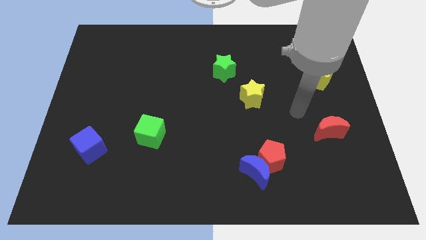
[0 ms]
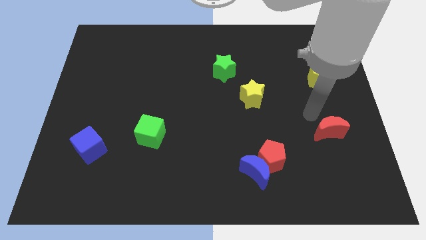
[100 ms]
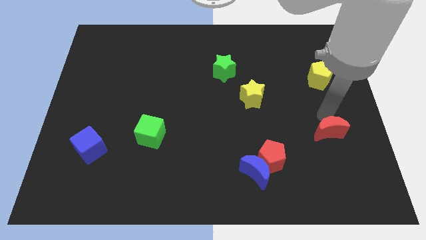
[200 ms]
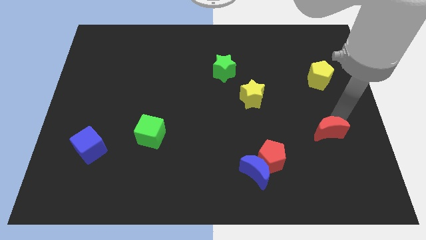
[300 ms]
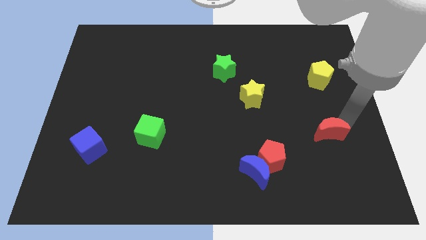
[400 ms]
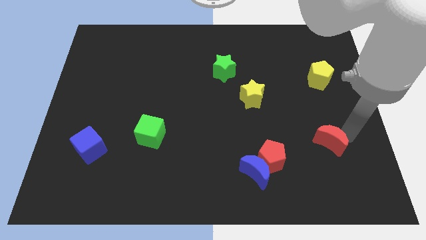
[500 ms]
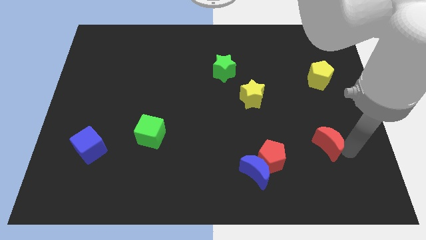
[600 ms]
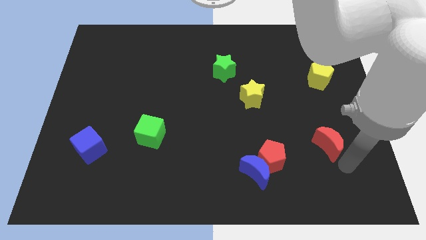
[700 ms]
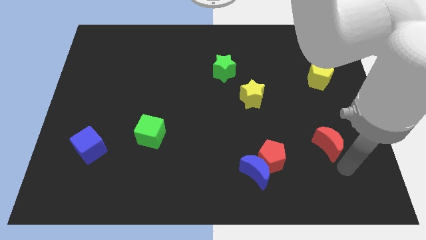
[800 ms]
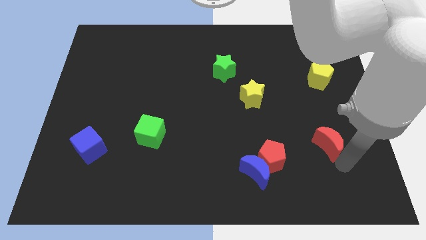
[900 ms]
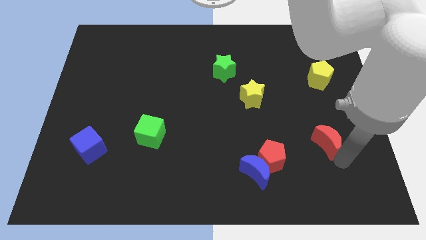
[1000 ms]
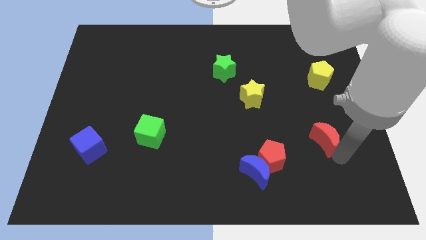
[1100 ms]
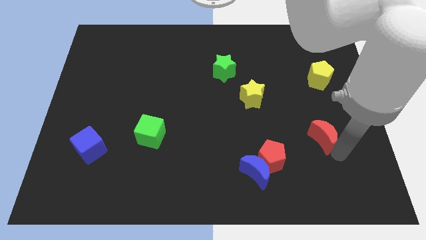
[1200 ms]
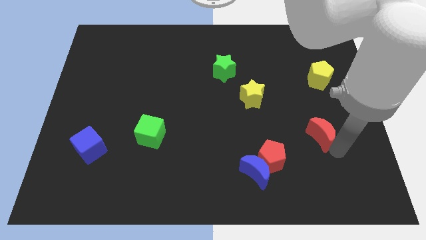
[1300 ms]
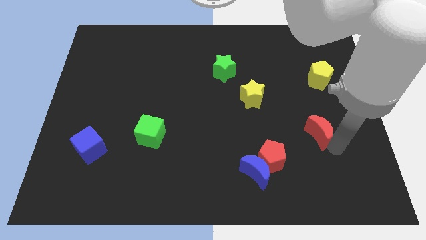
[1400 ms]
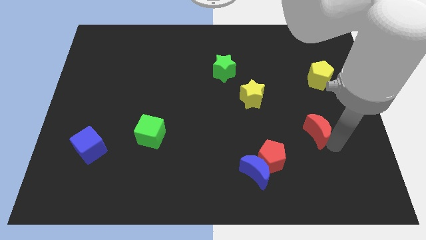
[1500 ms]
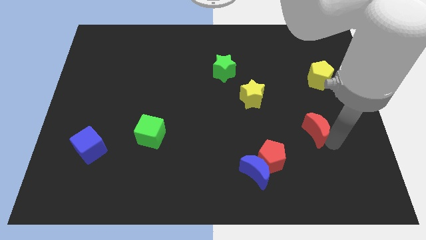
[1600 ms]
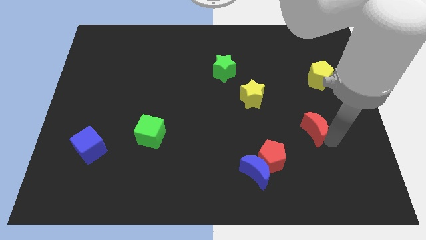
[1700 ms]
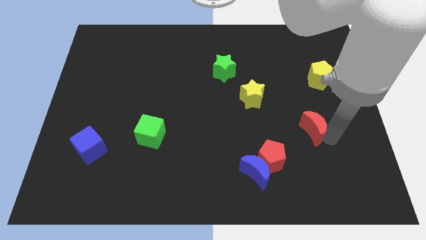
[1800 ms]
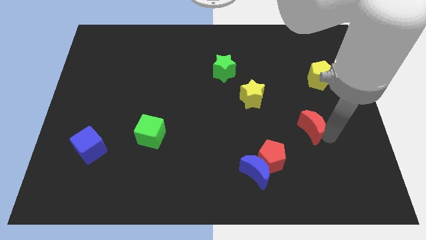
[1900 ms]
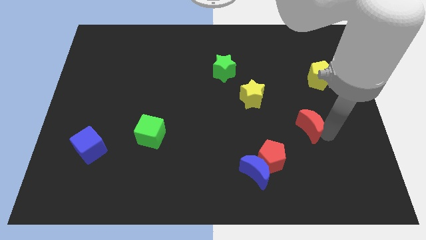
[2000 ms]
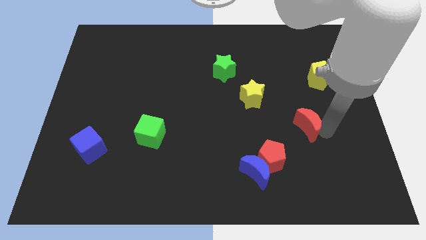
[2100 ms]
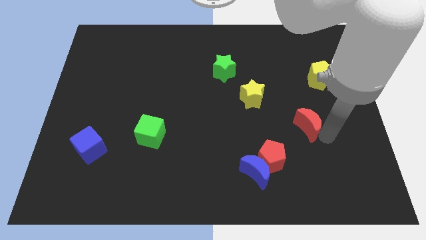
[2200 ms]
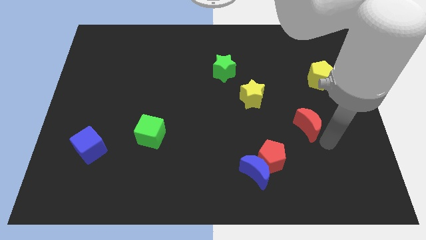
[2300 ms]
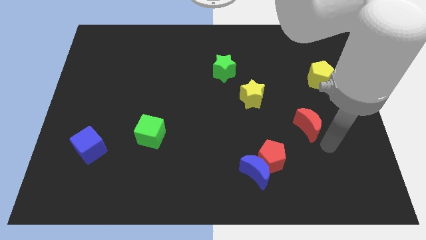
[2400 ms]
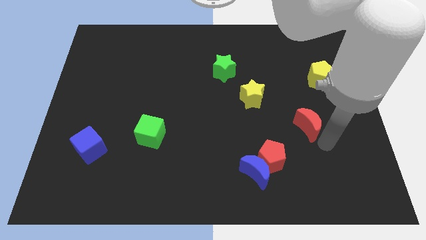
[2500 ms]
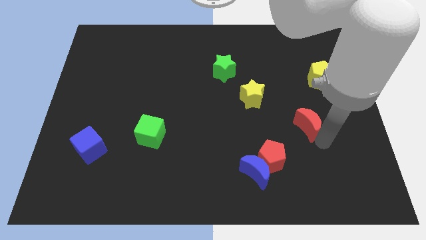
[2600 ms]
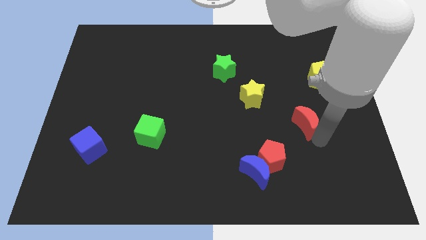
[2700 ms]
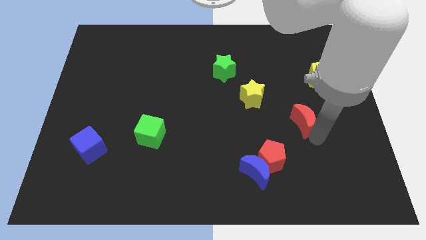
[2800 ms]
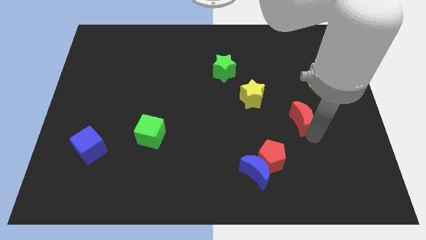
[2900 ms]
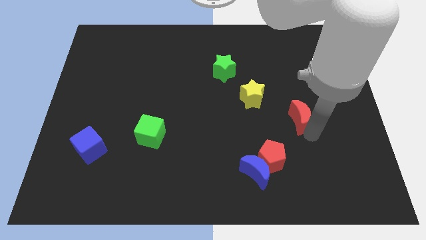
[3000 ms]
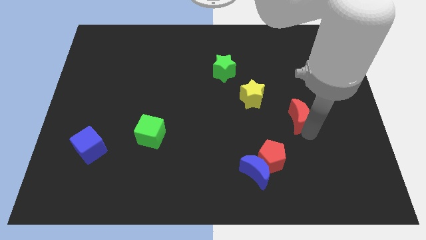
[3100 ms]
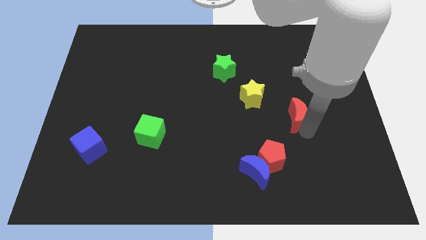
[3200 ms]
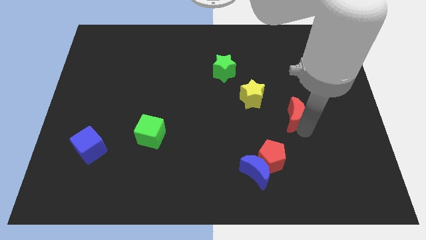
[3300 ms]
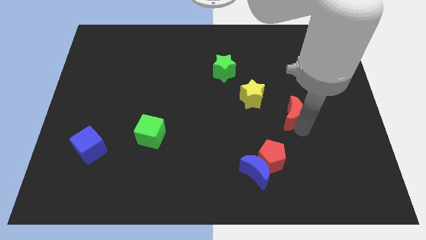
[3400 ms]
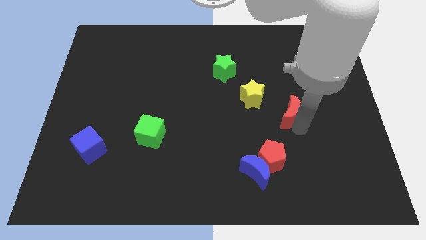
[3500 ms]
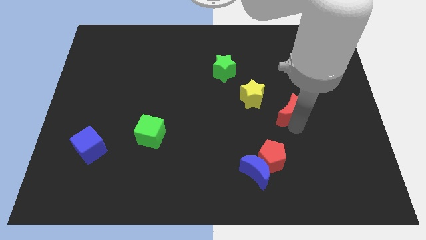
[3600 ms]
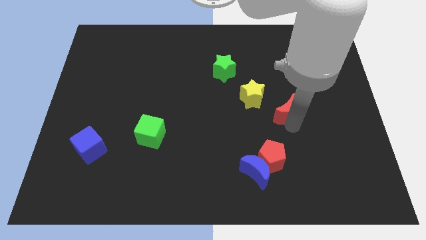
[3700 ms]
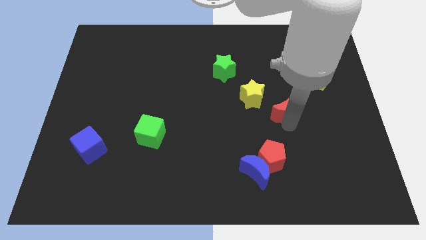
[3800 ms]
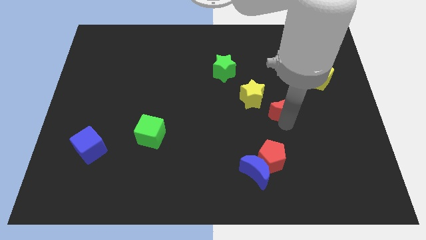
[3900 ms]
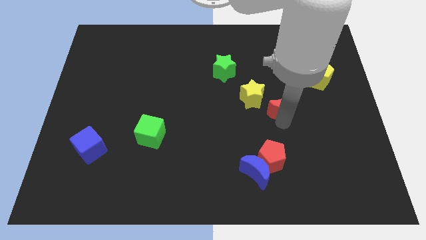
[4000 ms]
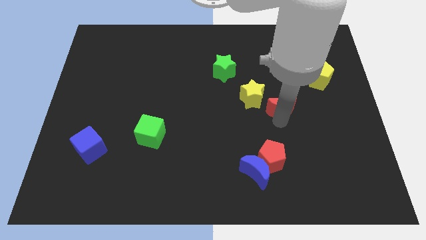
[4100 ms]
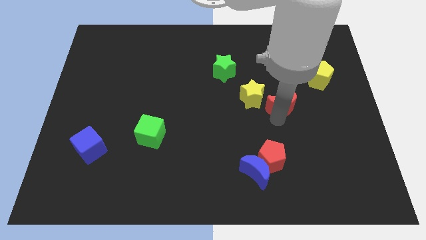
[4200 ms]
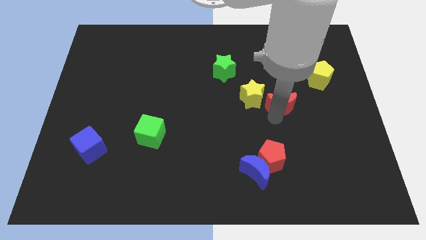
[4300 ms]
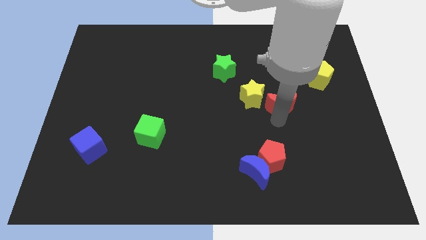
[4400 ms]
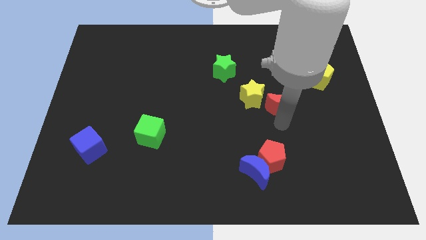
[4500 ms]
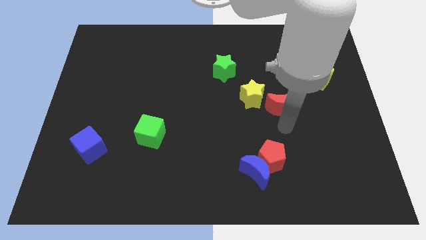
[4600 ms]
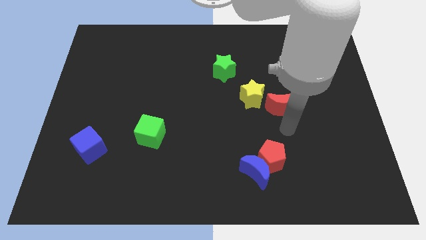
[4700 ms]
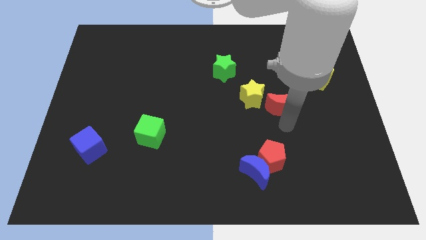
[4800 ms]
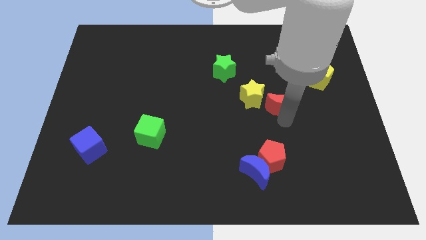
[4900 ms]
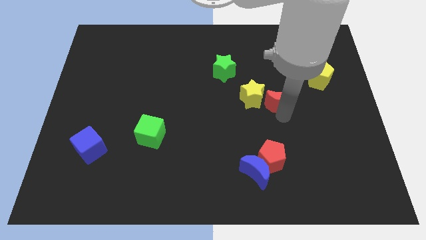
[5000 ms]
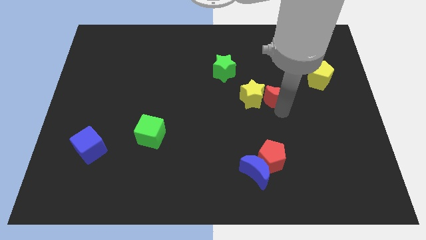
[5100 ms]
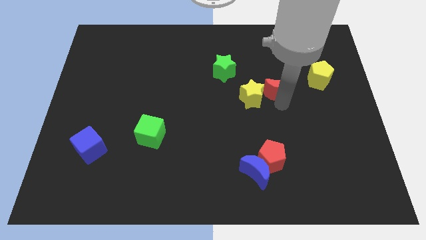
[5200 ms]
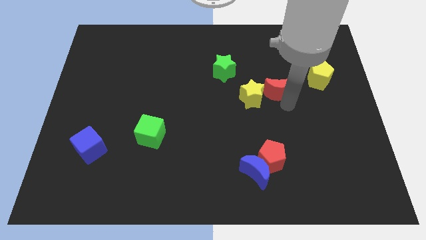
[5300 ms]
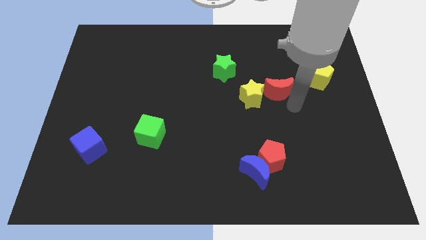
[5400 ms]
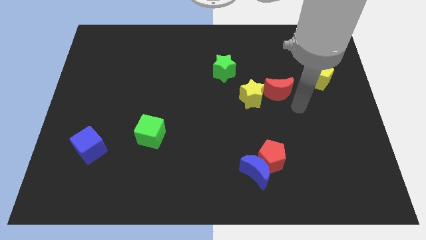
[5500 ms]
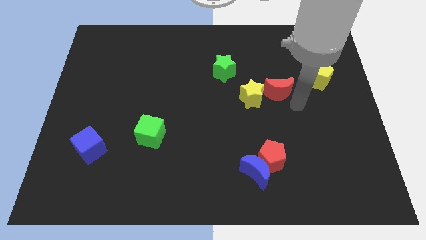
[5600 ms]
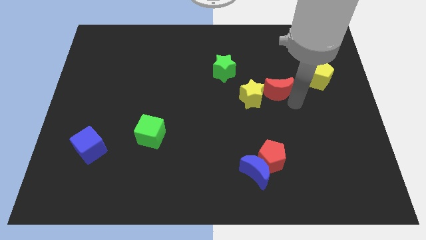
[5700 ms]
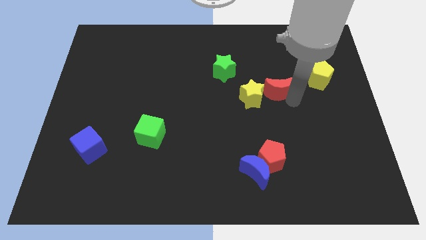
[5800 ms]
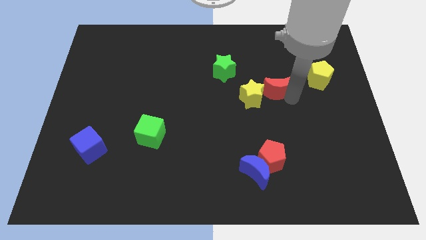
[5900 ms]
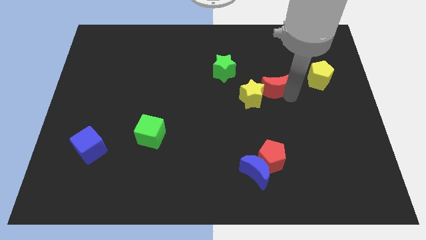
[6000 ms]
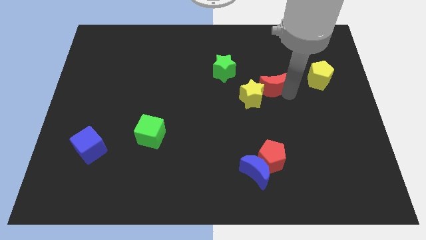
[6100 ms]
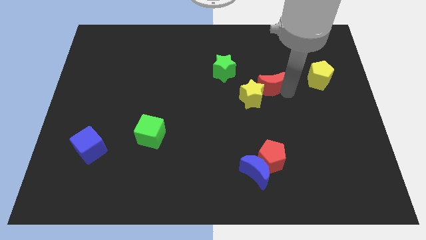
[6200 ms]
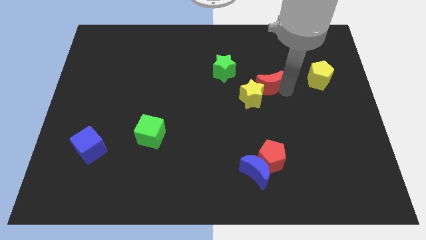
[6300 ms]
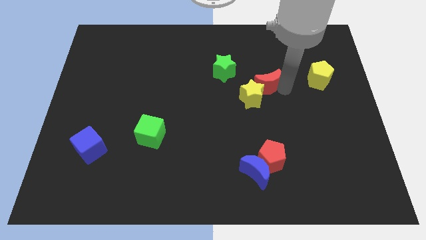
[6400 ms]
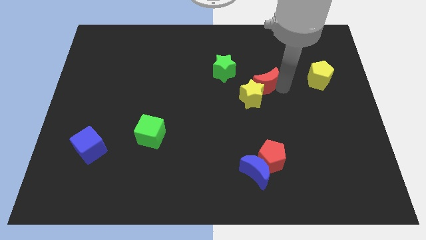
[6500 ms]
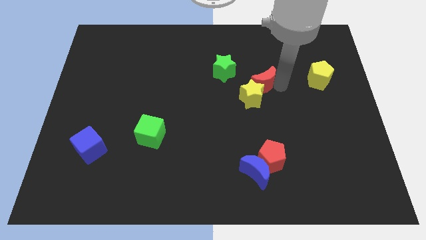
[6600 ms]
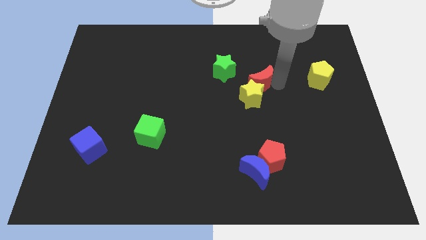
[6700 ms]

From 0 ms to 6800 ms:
move the red moon up and to the left

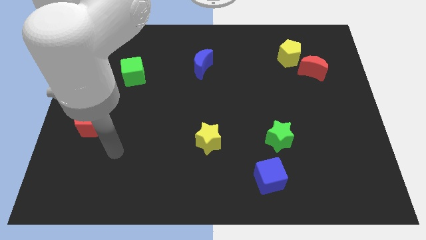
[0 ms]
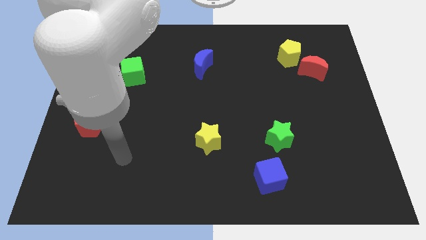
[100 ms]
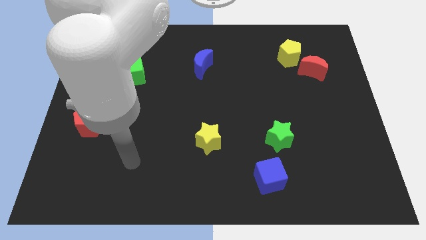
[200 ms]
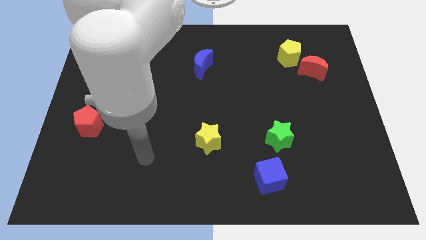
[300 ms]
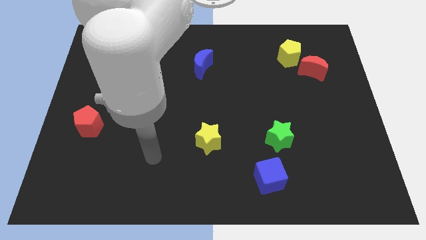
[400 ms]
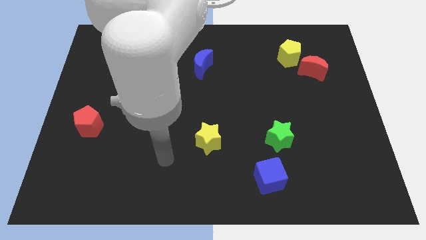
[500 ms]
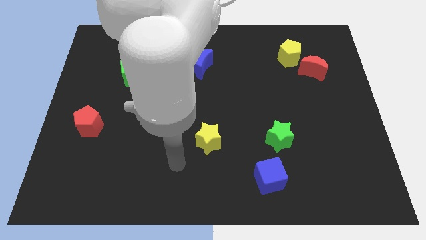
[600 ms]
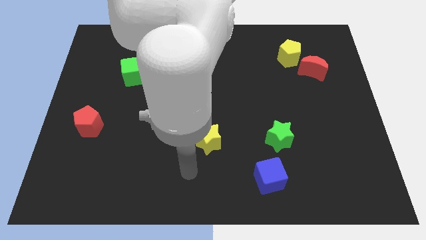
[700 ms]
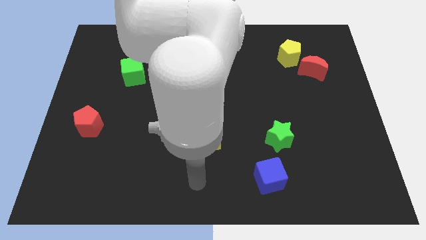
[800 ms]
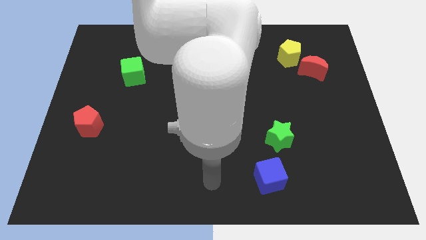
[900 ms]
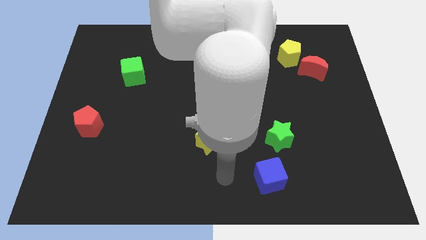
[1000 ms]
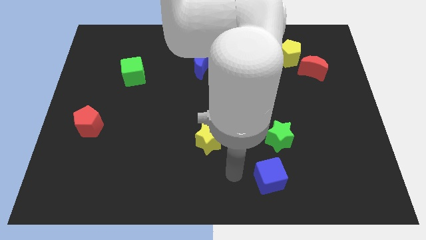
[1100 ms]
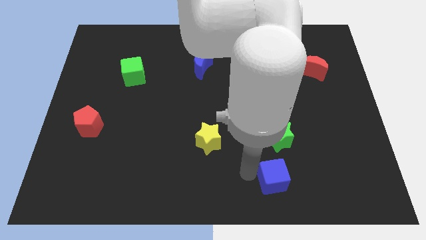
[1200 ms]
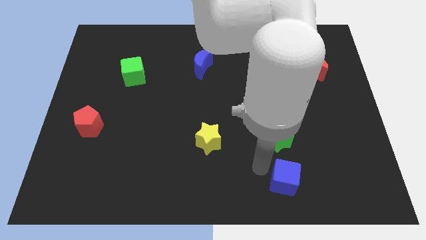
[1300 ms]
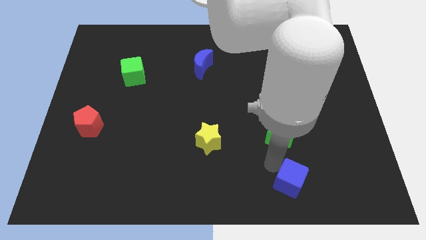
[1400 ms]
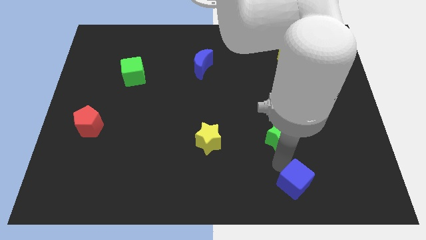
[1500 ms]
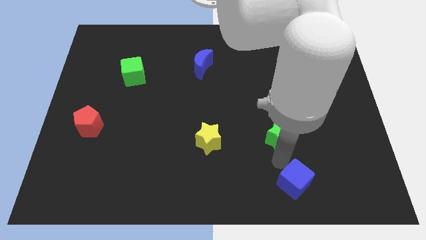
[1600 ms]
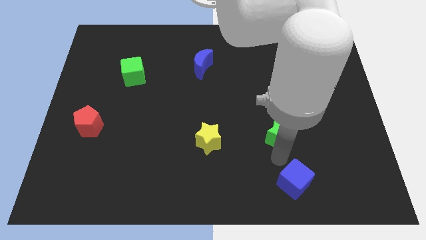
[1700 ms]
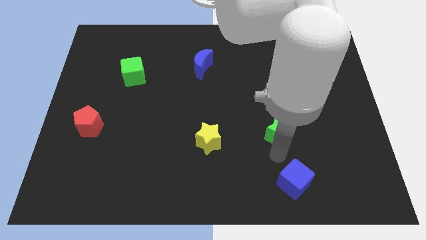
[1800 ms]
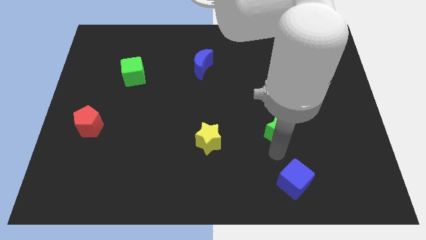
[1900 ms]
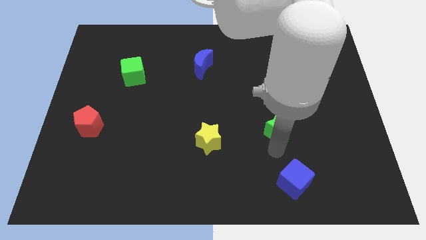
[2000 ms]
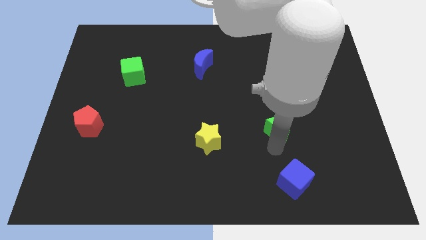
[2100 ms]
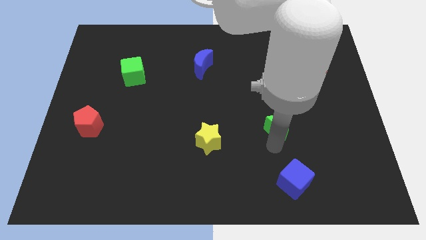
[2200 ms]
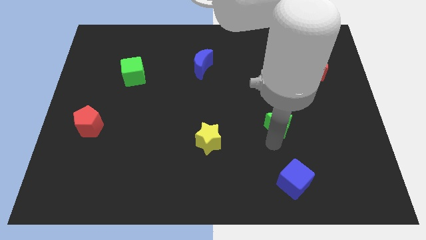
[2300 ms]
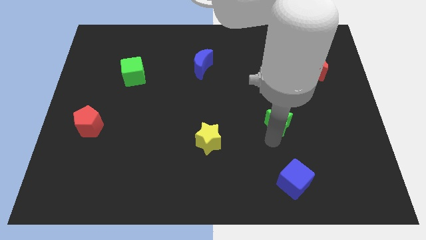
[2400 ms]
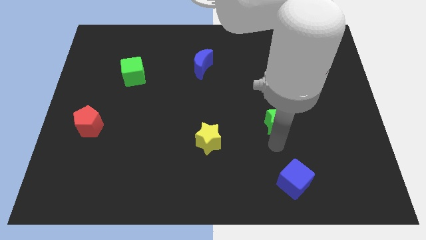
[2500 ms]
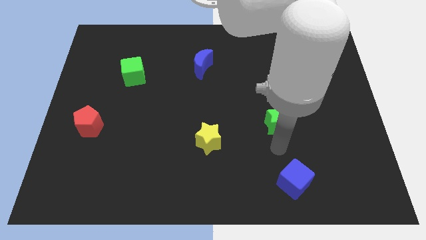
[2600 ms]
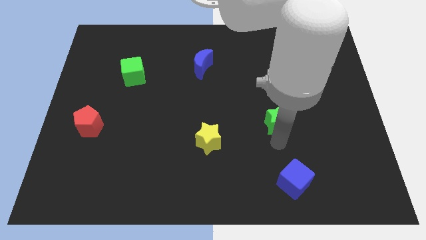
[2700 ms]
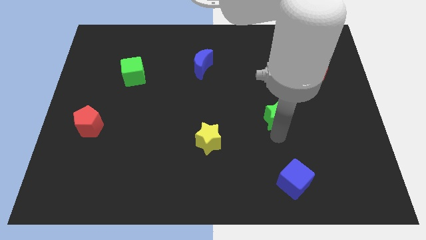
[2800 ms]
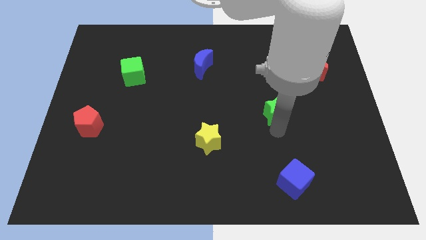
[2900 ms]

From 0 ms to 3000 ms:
move the green star somewhat up
